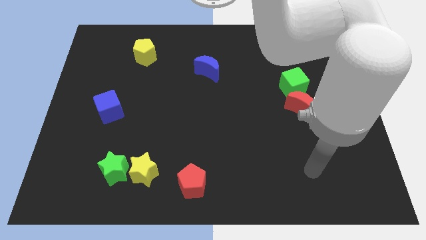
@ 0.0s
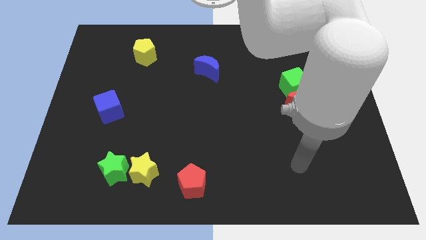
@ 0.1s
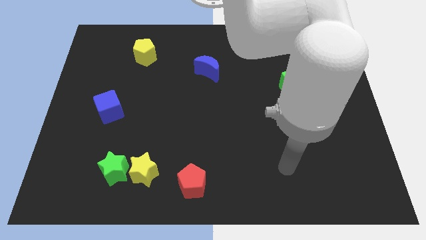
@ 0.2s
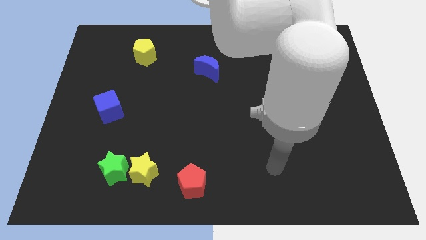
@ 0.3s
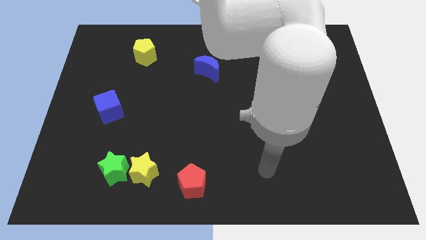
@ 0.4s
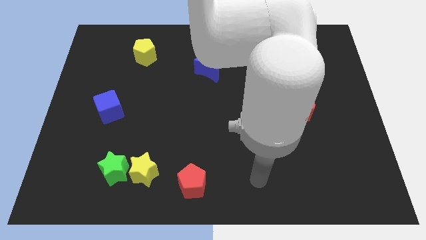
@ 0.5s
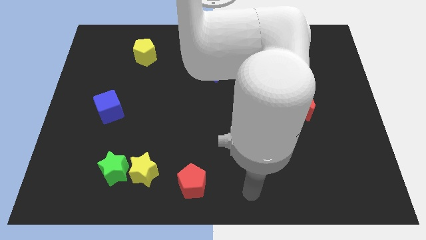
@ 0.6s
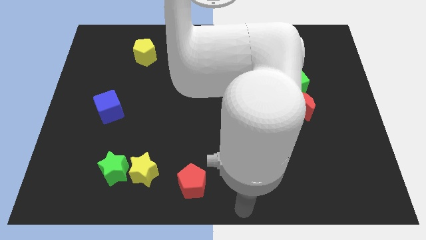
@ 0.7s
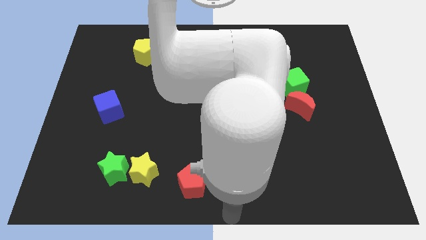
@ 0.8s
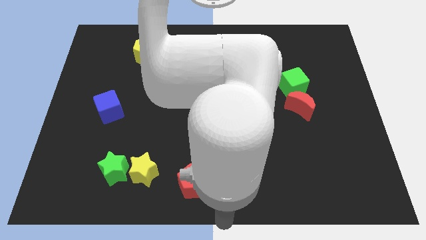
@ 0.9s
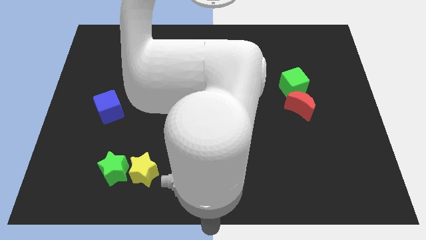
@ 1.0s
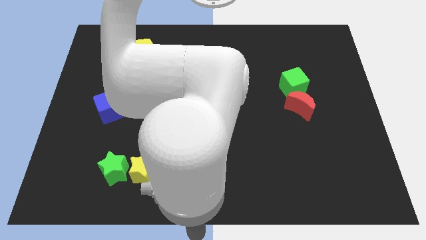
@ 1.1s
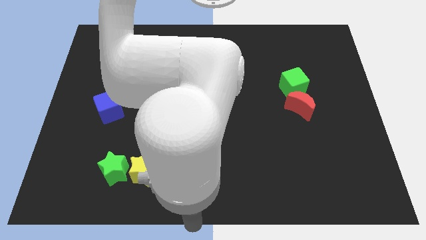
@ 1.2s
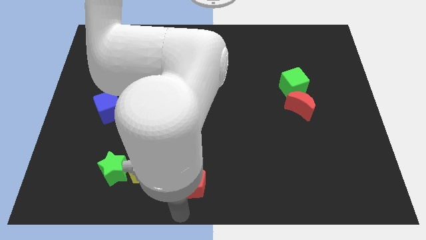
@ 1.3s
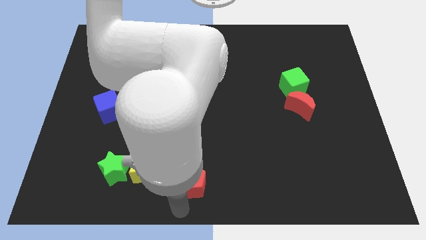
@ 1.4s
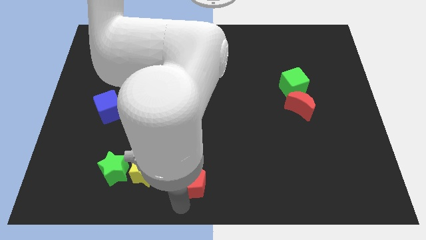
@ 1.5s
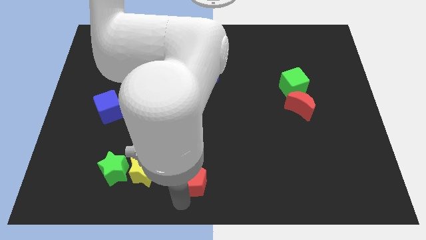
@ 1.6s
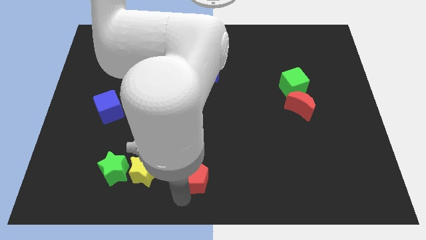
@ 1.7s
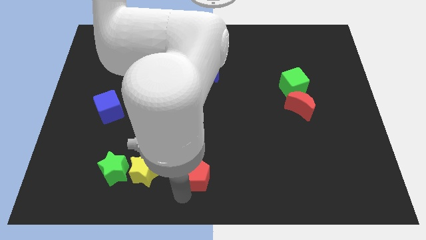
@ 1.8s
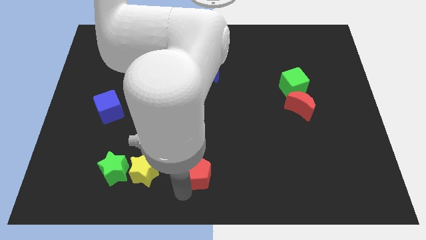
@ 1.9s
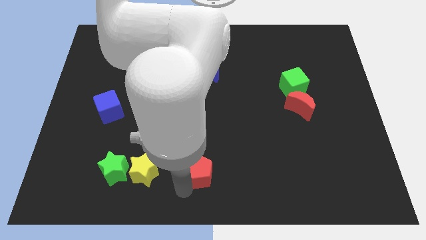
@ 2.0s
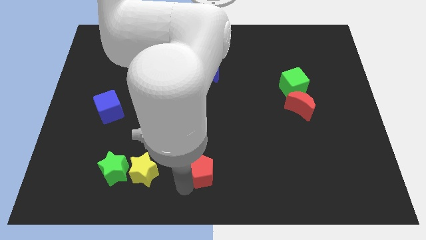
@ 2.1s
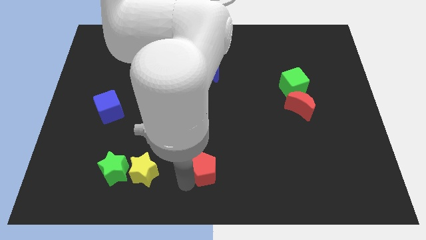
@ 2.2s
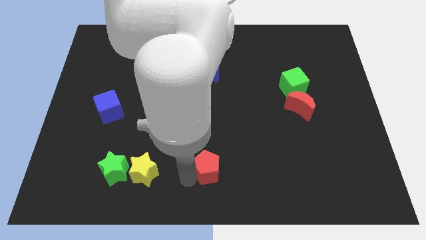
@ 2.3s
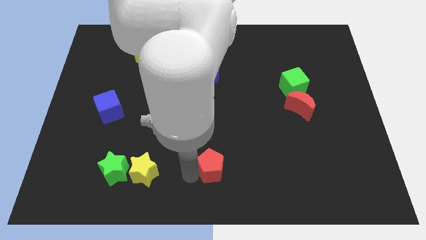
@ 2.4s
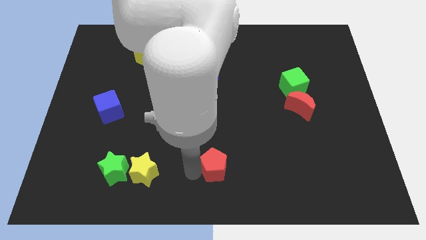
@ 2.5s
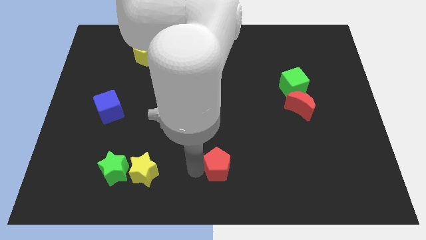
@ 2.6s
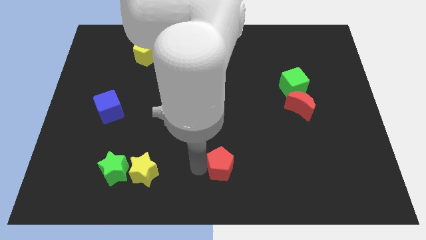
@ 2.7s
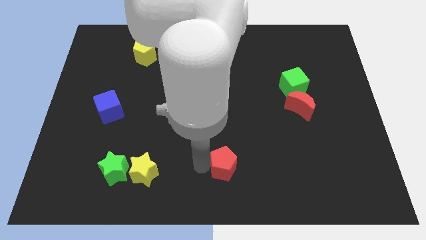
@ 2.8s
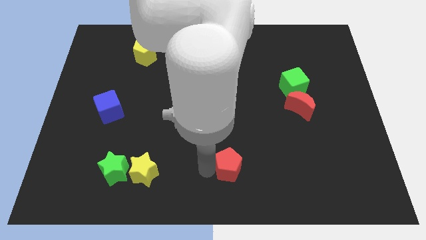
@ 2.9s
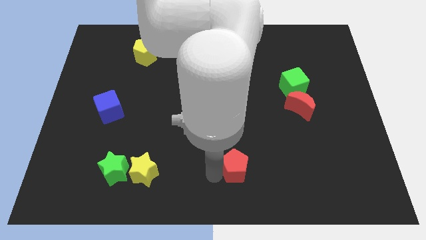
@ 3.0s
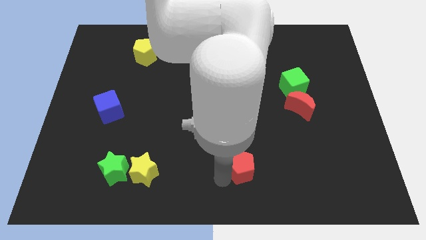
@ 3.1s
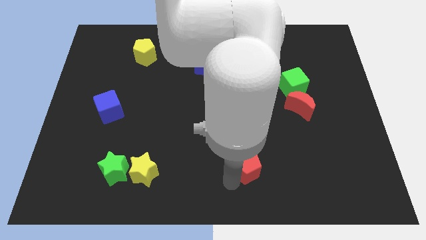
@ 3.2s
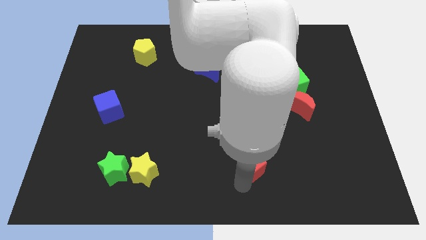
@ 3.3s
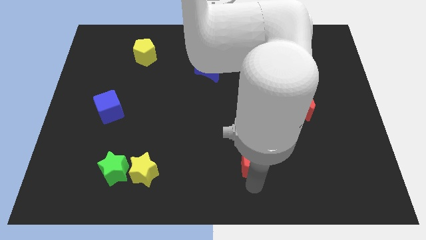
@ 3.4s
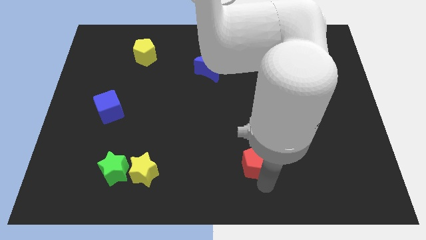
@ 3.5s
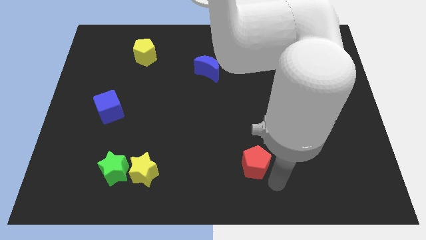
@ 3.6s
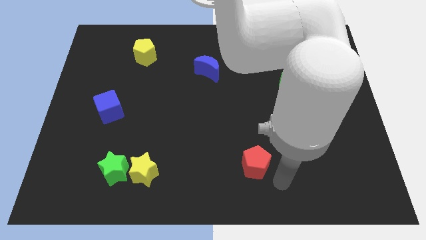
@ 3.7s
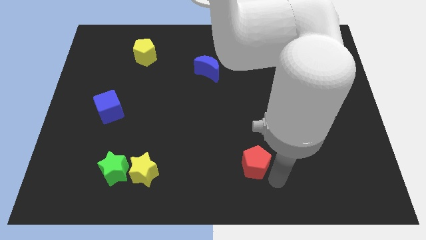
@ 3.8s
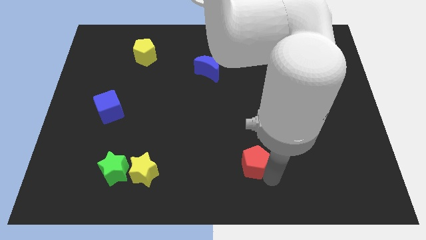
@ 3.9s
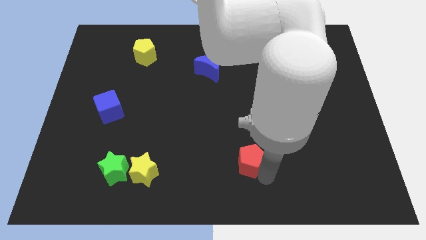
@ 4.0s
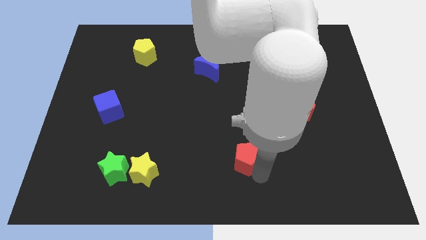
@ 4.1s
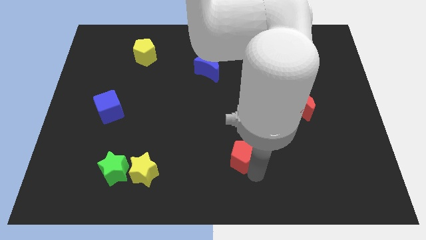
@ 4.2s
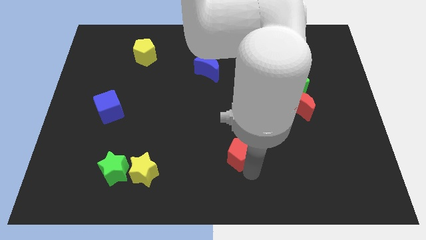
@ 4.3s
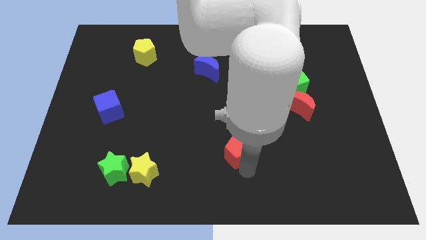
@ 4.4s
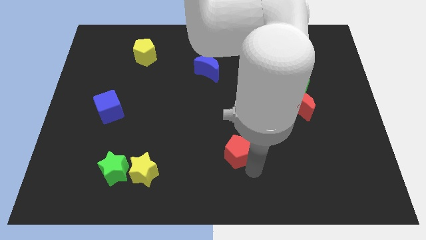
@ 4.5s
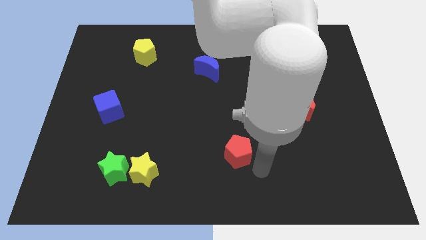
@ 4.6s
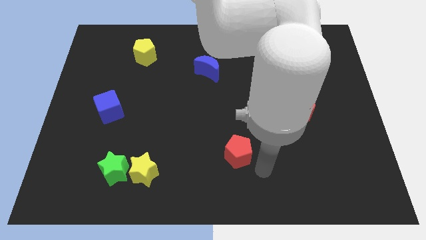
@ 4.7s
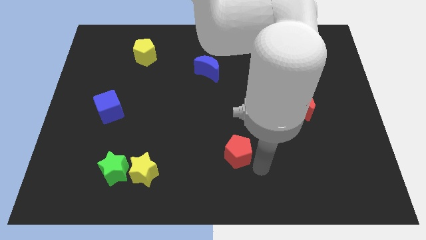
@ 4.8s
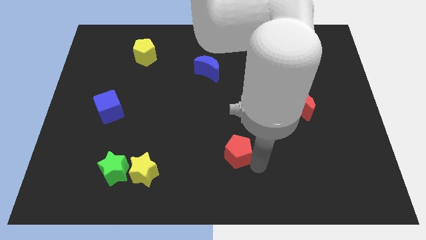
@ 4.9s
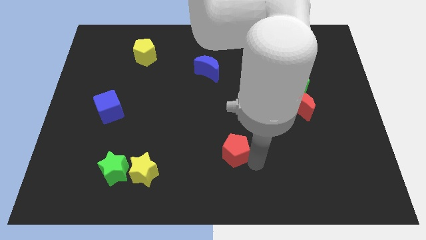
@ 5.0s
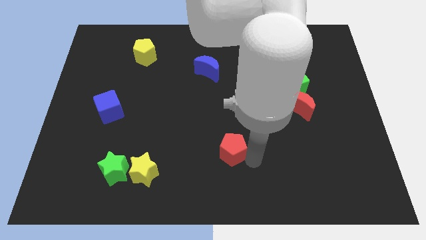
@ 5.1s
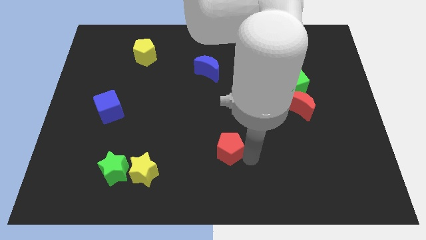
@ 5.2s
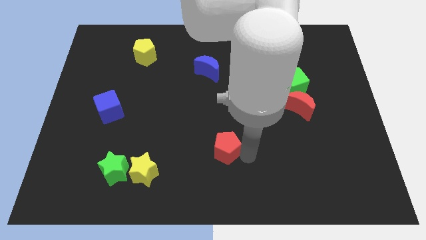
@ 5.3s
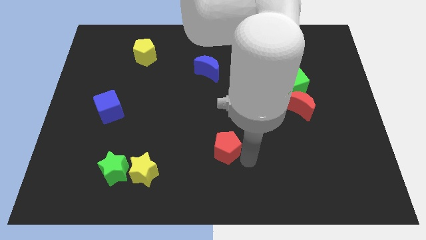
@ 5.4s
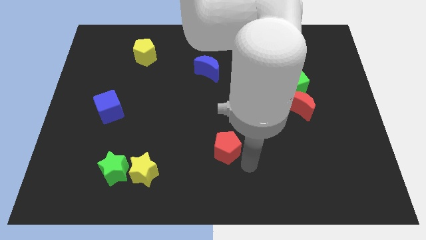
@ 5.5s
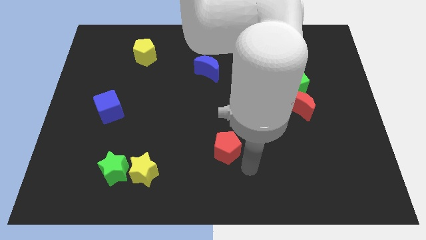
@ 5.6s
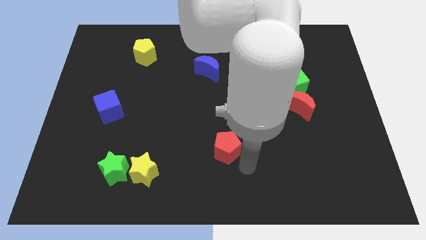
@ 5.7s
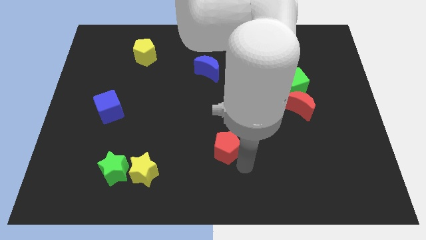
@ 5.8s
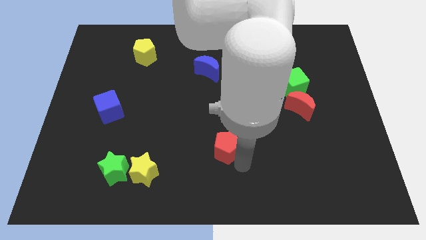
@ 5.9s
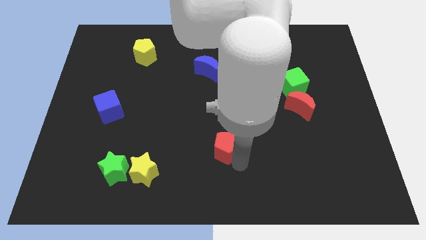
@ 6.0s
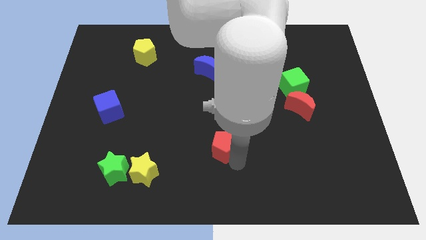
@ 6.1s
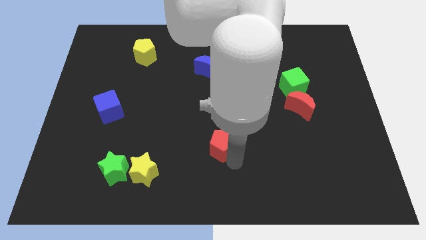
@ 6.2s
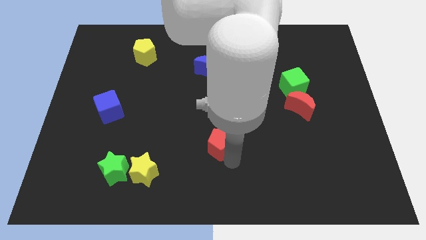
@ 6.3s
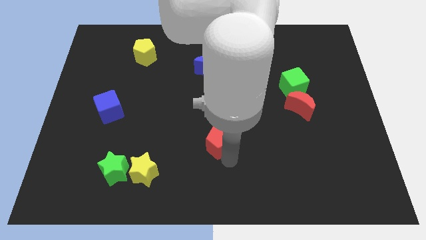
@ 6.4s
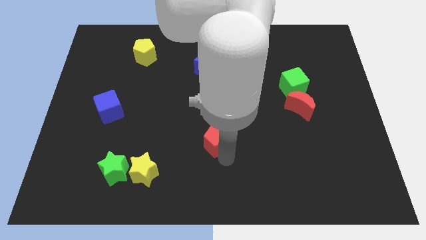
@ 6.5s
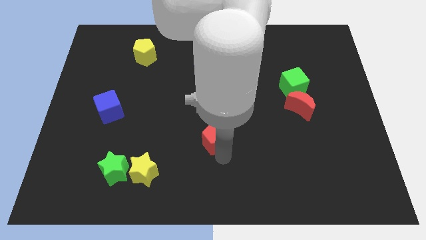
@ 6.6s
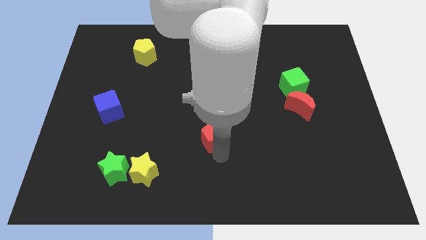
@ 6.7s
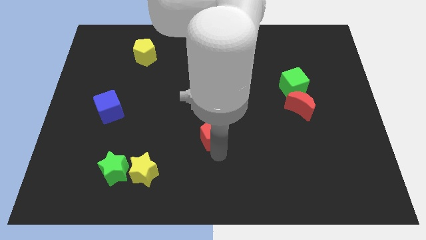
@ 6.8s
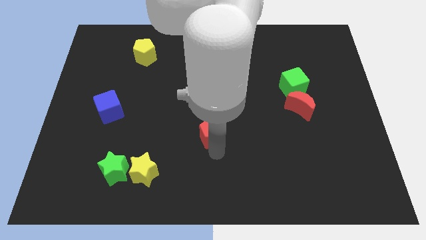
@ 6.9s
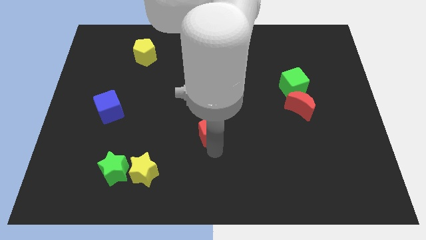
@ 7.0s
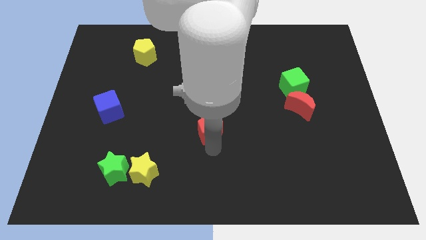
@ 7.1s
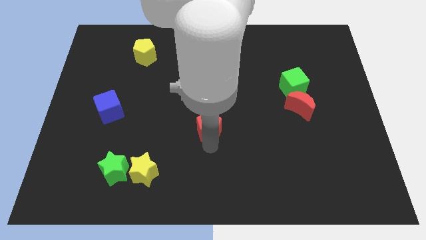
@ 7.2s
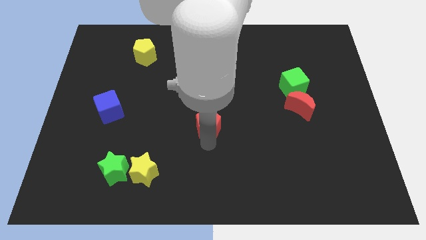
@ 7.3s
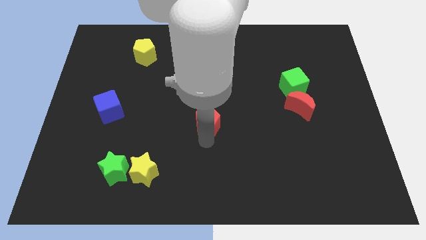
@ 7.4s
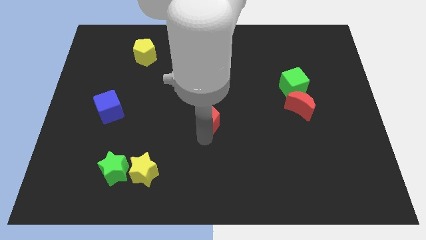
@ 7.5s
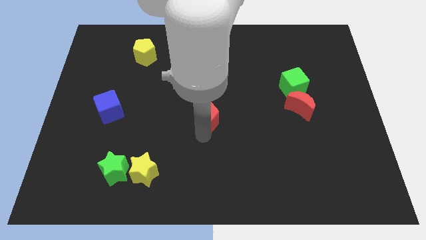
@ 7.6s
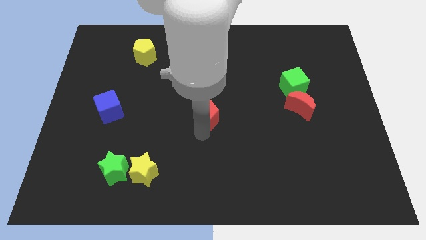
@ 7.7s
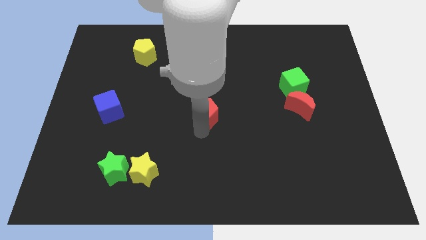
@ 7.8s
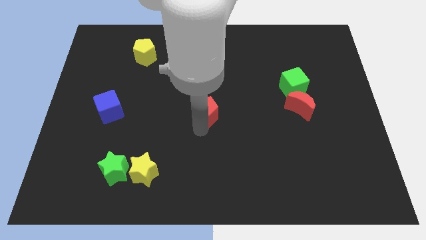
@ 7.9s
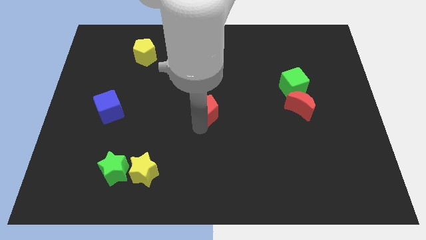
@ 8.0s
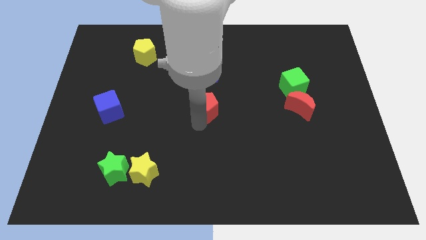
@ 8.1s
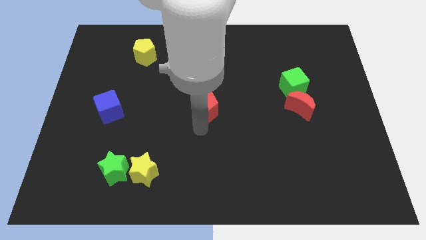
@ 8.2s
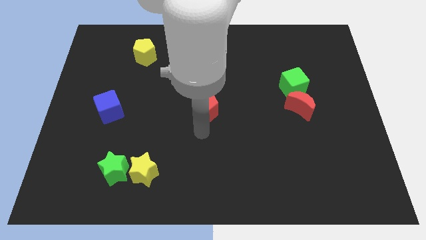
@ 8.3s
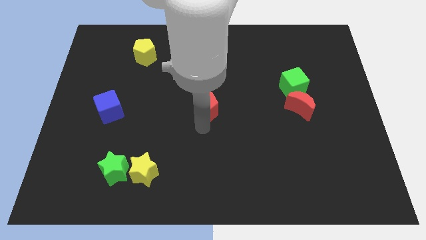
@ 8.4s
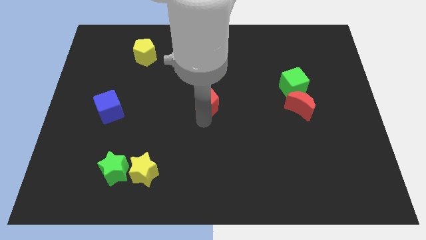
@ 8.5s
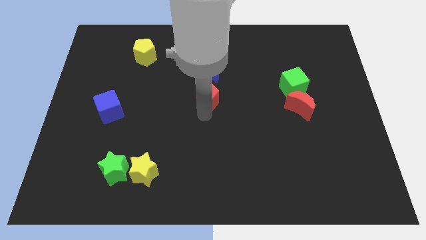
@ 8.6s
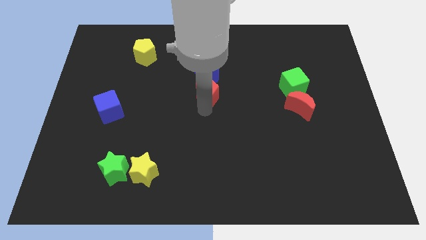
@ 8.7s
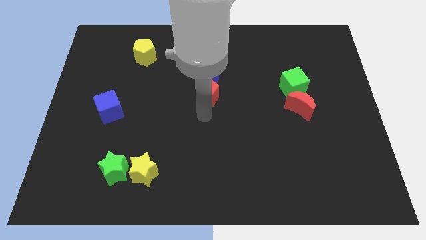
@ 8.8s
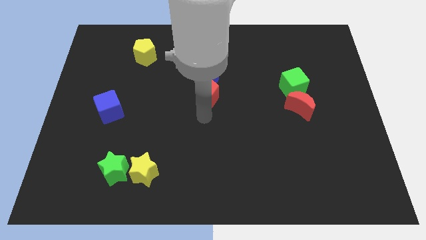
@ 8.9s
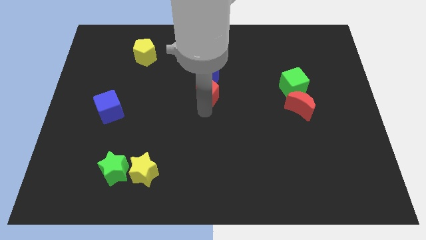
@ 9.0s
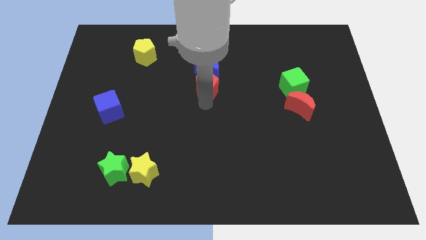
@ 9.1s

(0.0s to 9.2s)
slide the red pentagon towards the blue moon
